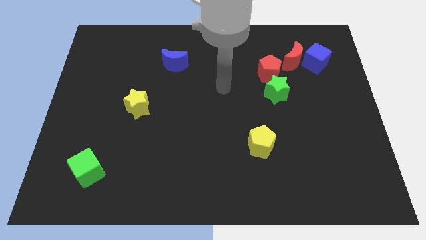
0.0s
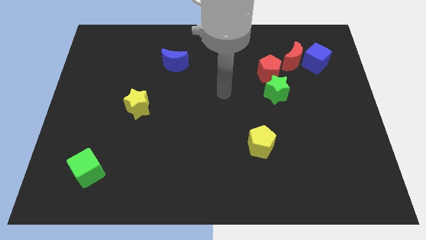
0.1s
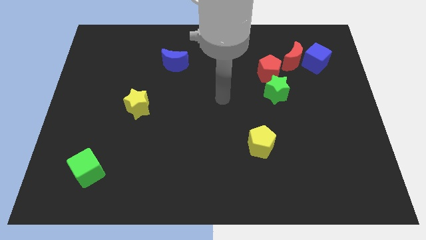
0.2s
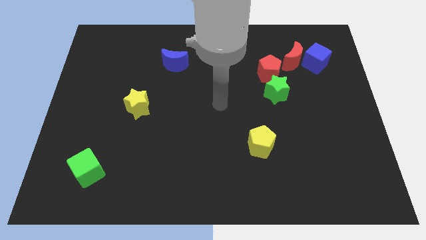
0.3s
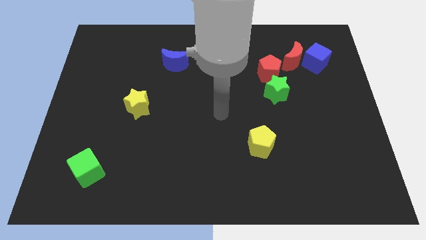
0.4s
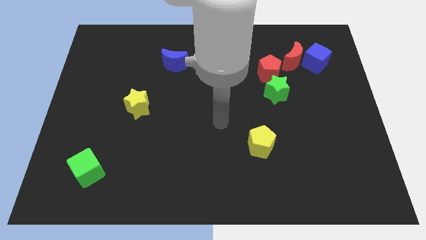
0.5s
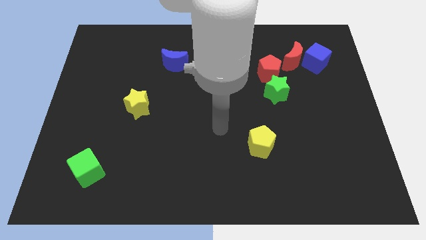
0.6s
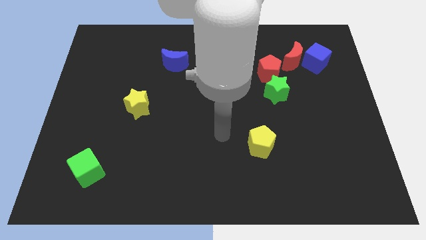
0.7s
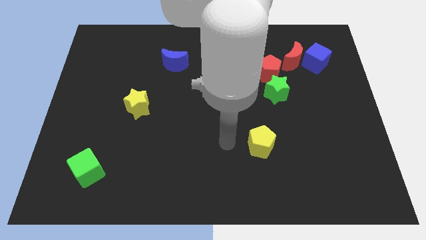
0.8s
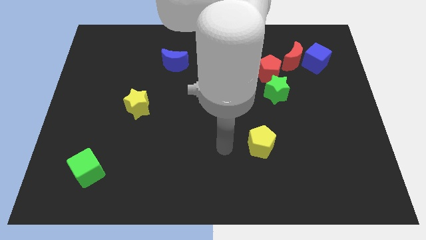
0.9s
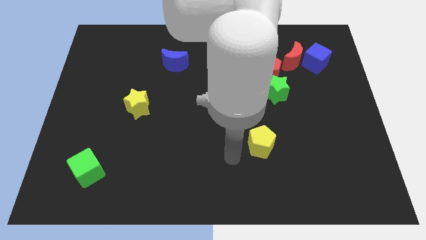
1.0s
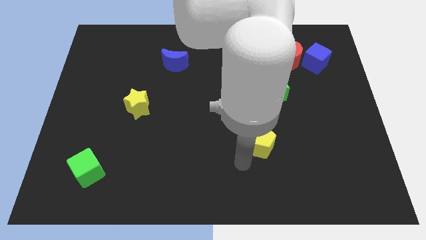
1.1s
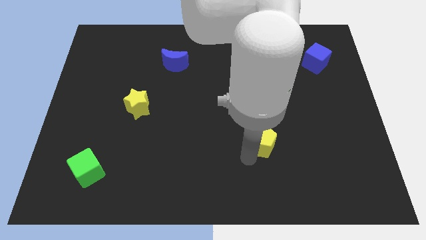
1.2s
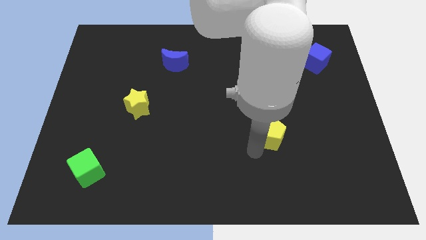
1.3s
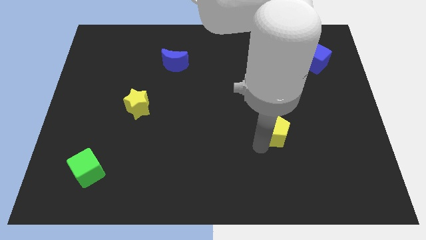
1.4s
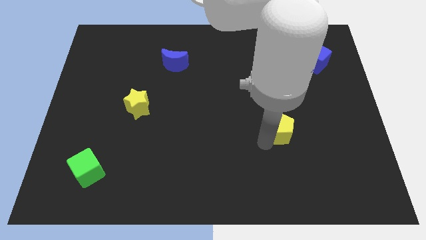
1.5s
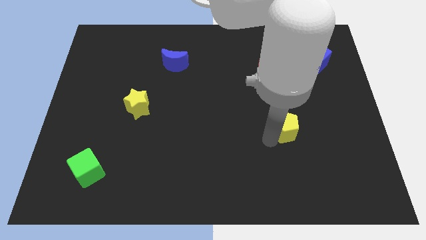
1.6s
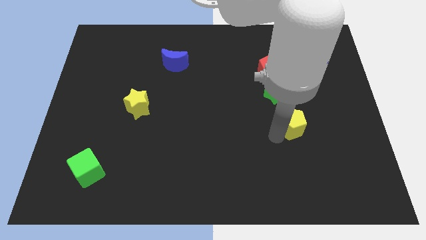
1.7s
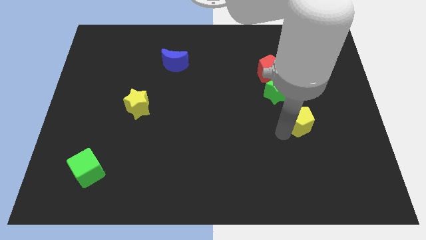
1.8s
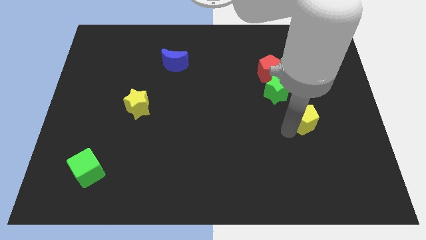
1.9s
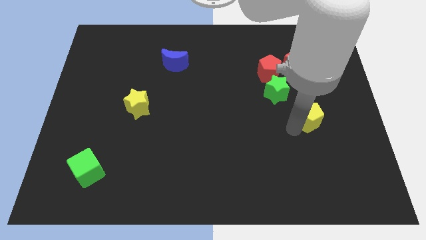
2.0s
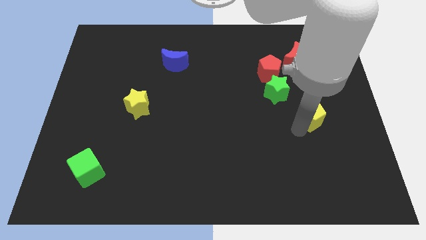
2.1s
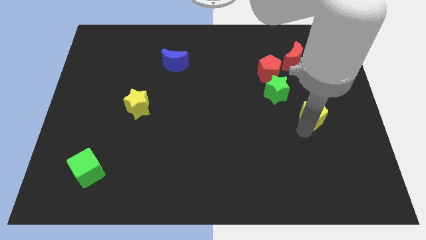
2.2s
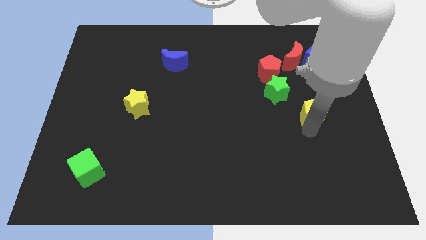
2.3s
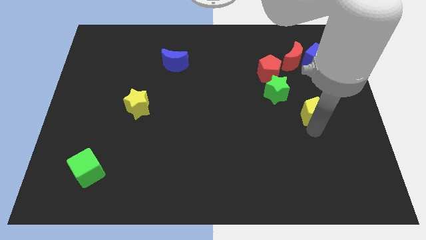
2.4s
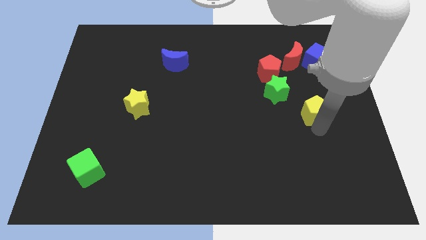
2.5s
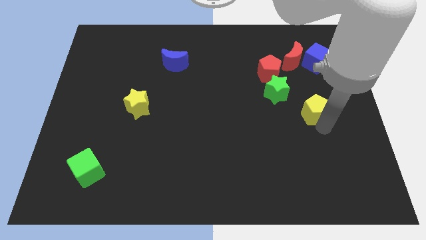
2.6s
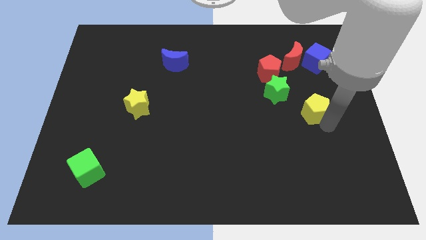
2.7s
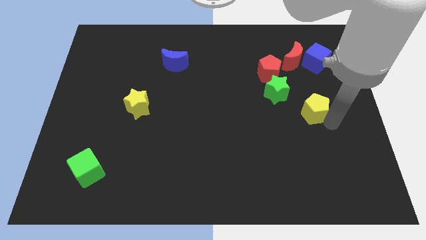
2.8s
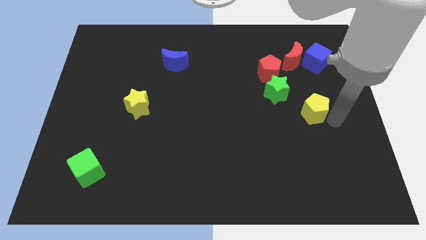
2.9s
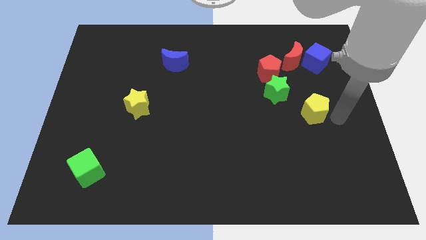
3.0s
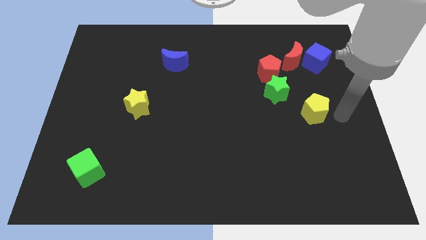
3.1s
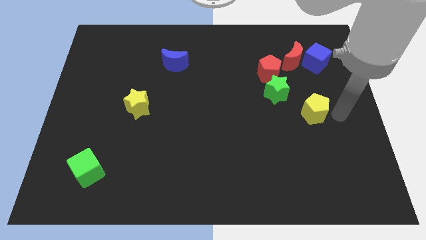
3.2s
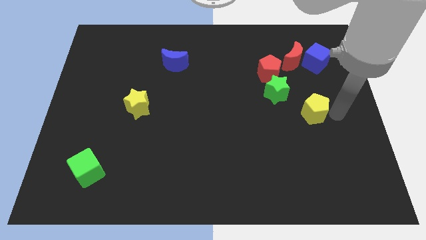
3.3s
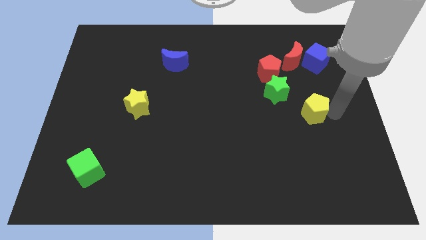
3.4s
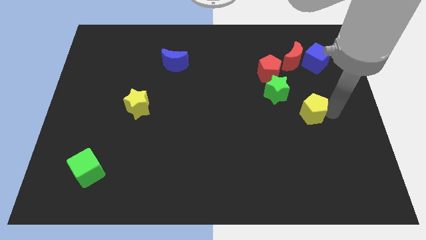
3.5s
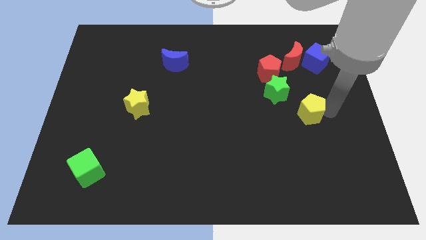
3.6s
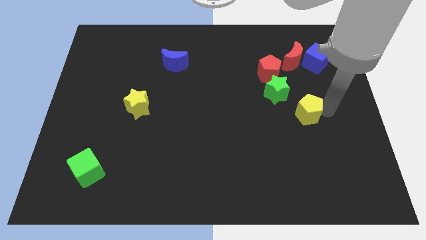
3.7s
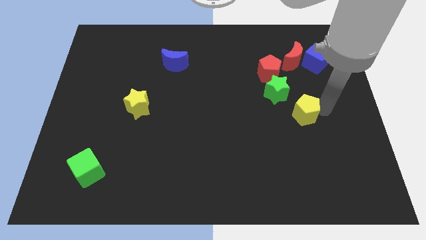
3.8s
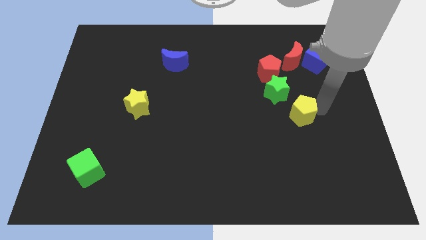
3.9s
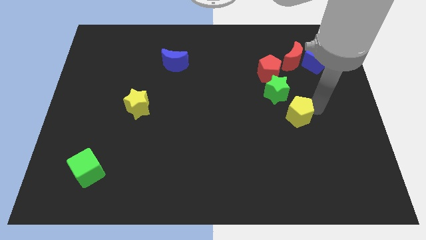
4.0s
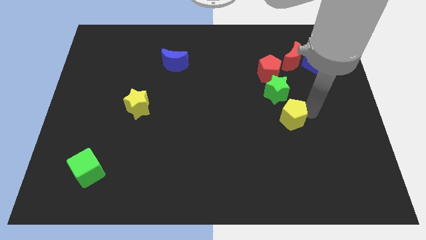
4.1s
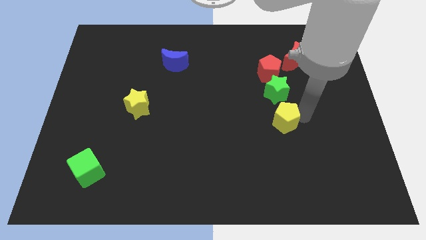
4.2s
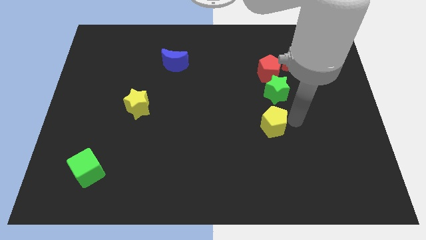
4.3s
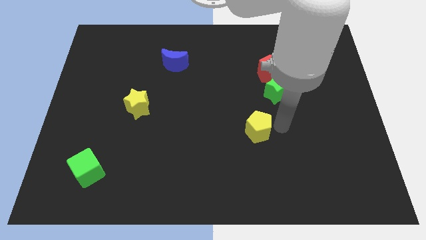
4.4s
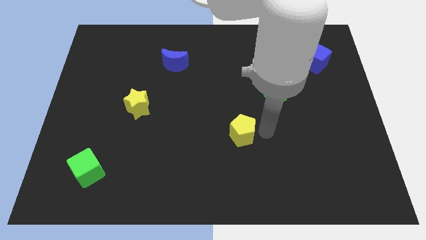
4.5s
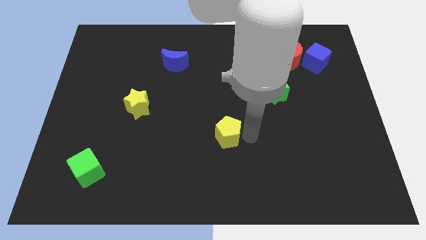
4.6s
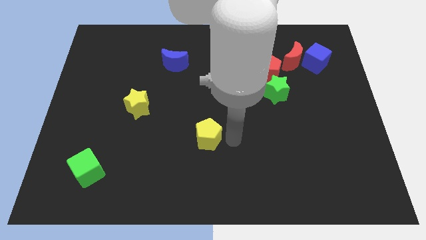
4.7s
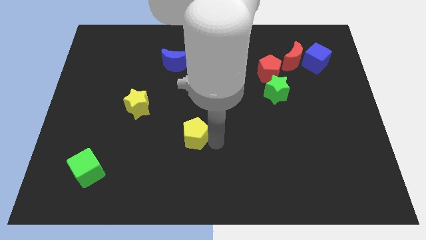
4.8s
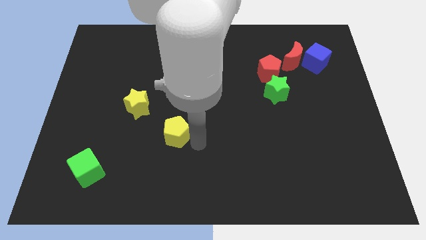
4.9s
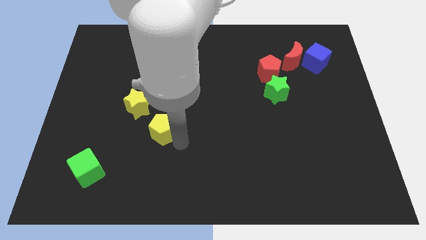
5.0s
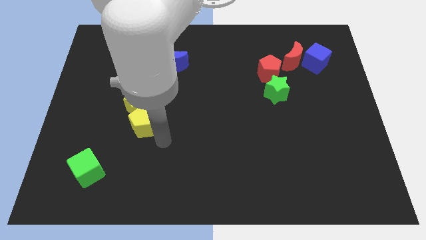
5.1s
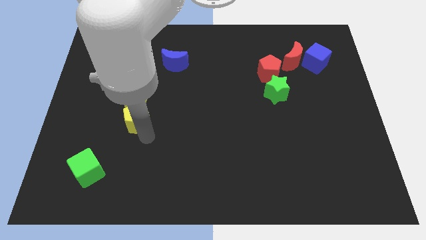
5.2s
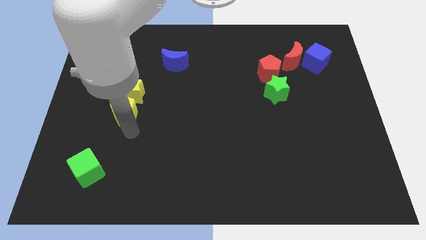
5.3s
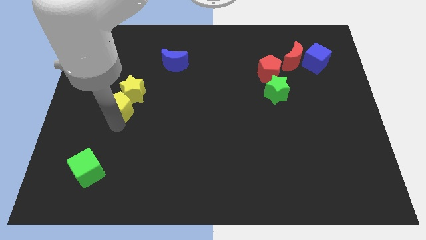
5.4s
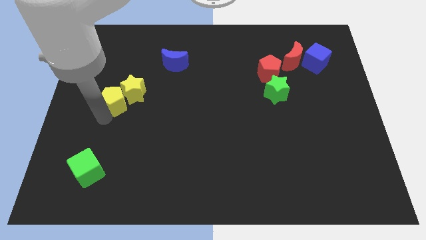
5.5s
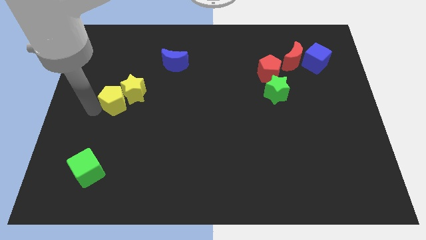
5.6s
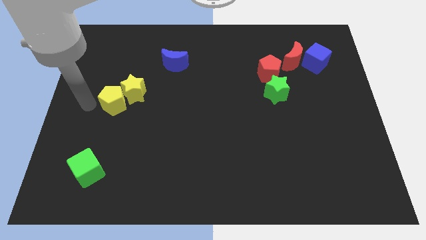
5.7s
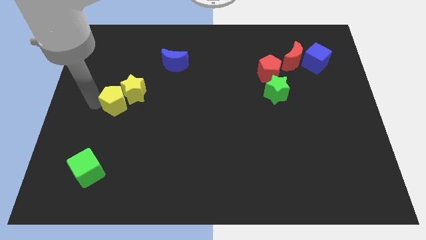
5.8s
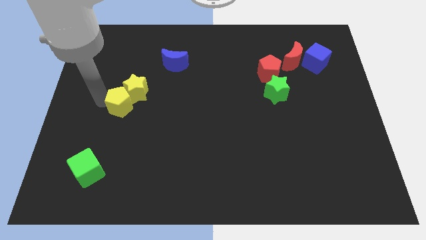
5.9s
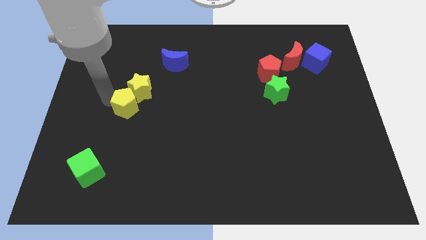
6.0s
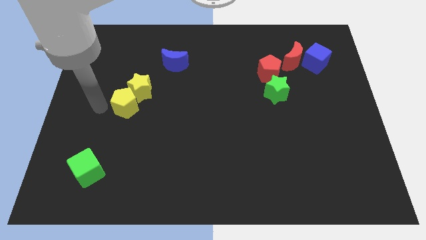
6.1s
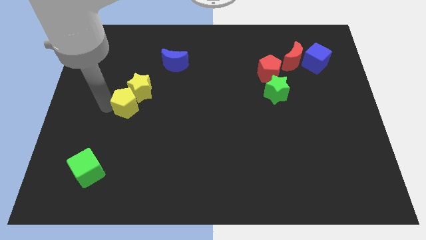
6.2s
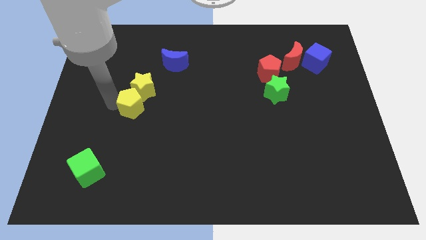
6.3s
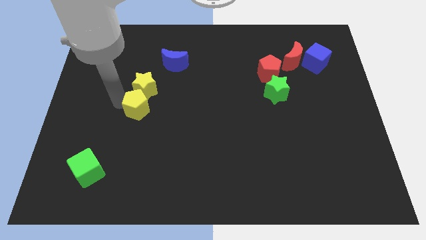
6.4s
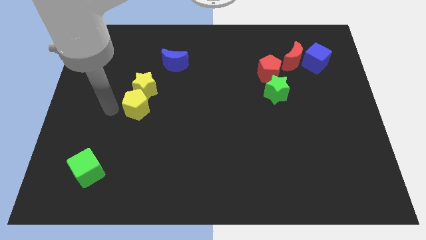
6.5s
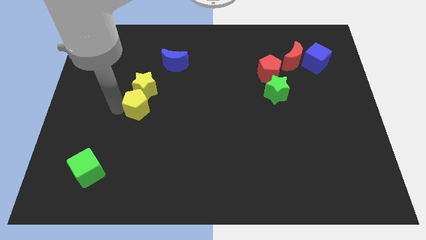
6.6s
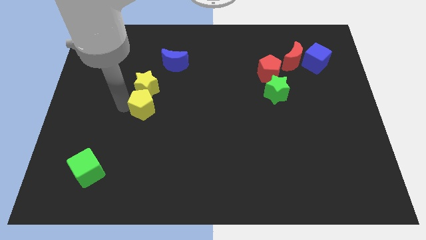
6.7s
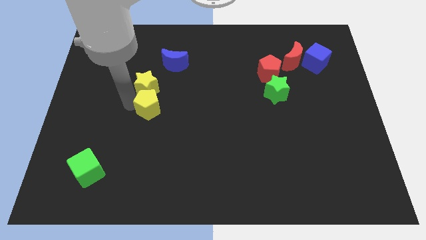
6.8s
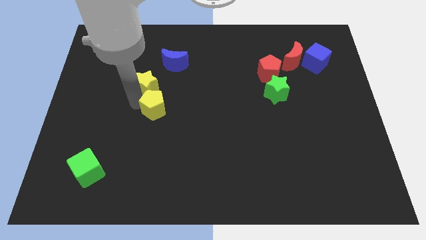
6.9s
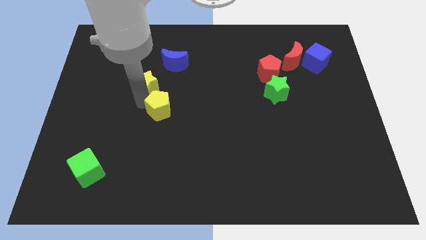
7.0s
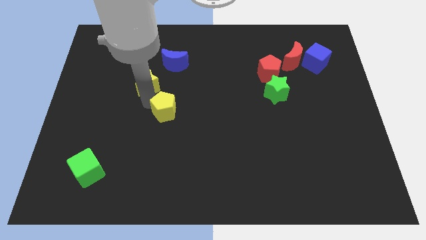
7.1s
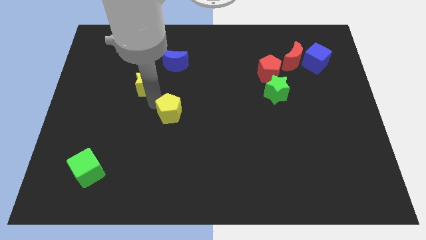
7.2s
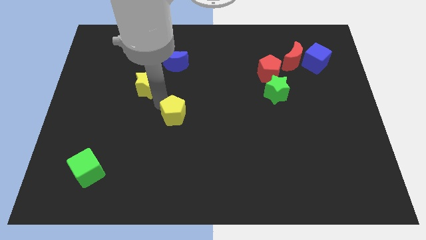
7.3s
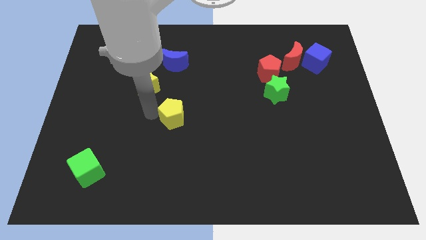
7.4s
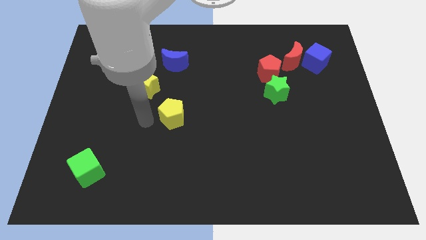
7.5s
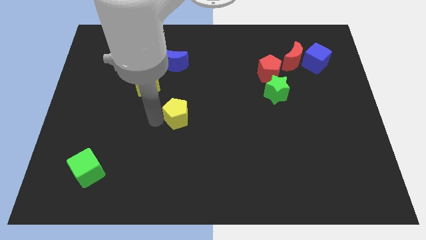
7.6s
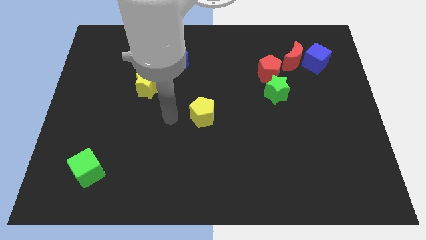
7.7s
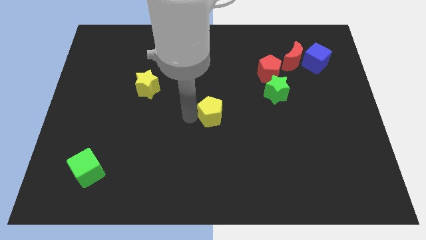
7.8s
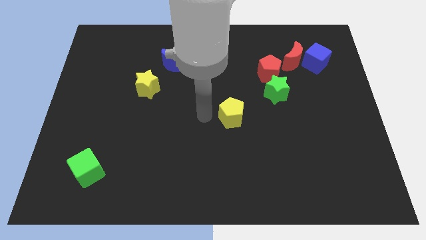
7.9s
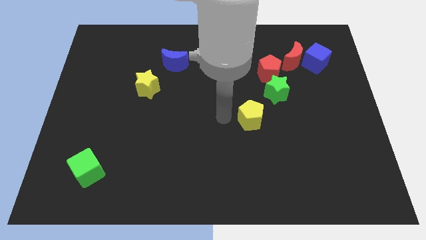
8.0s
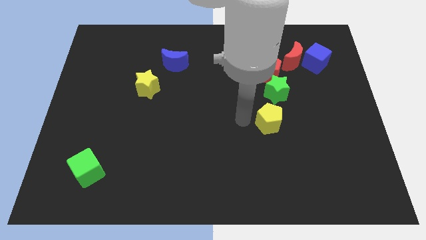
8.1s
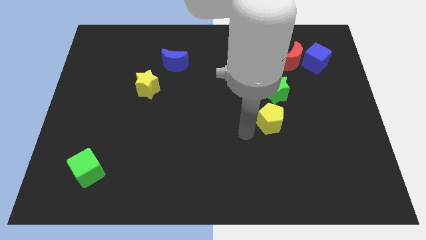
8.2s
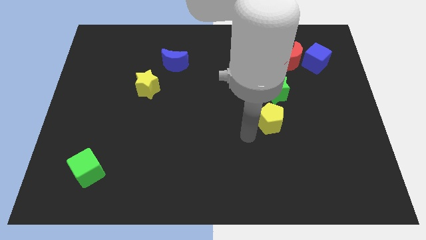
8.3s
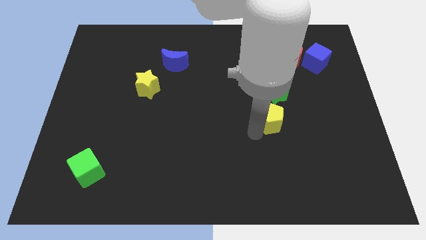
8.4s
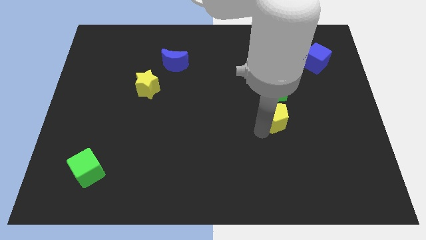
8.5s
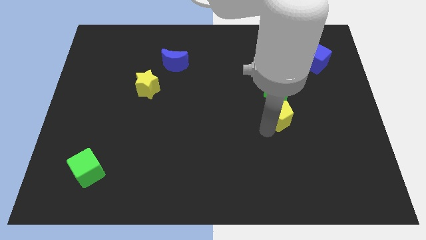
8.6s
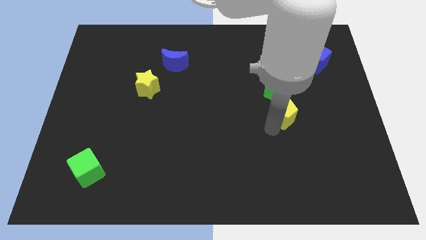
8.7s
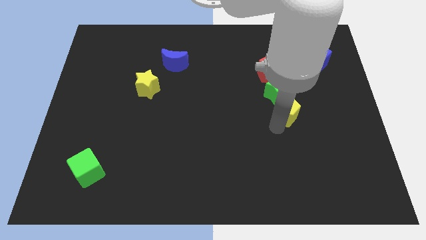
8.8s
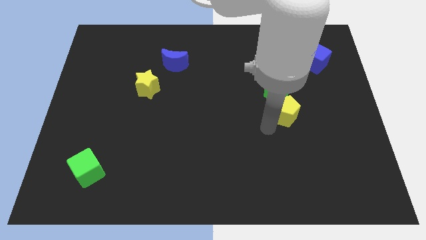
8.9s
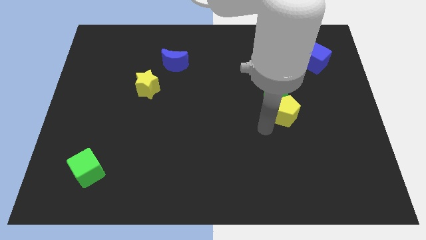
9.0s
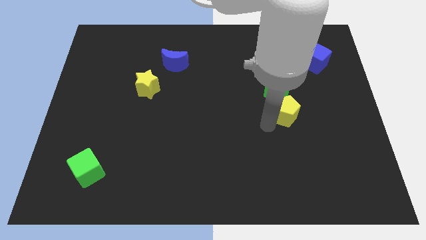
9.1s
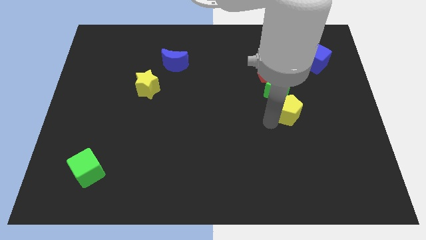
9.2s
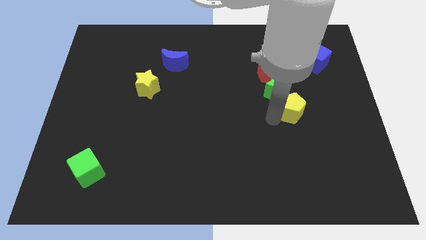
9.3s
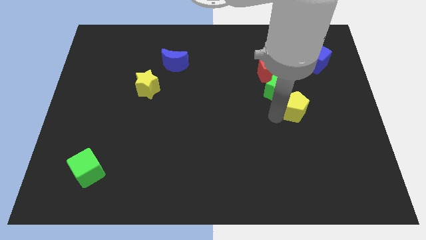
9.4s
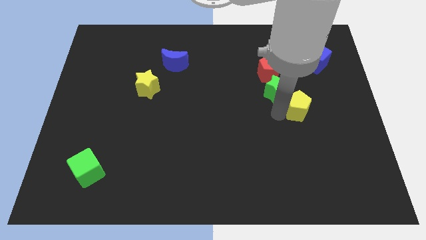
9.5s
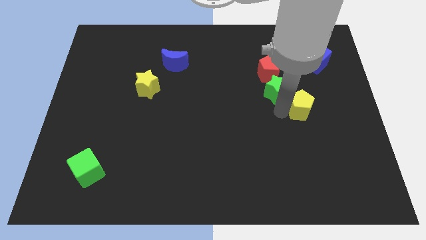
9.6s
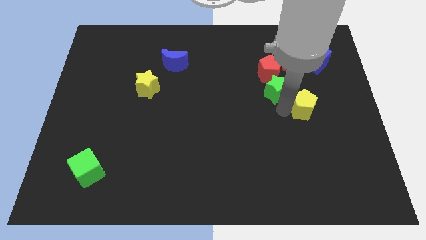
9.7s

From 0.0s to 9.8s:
move the yellow pentagon just right of the green star
